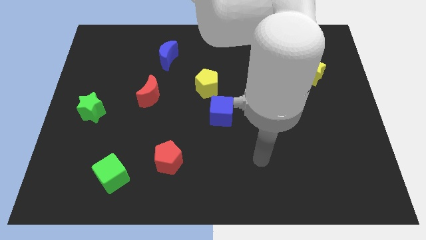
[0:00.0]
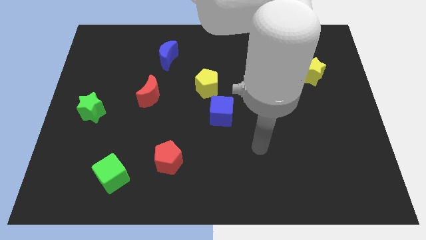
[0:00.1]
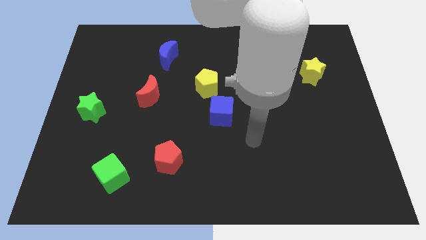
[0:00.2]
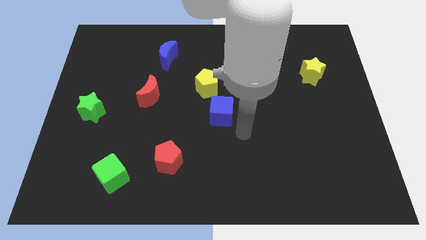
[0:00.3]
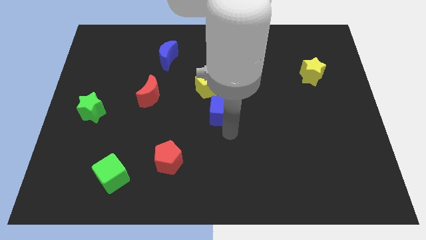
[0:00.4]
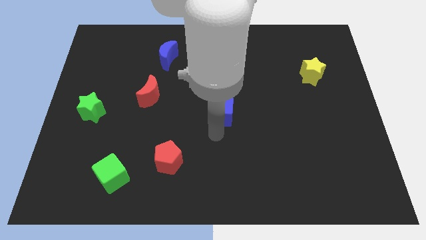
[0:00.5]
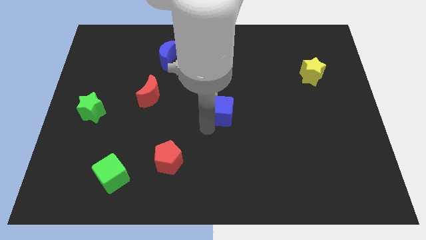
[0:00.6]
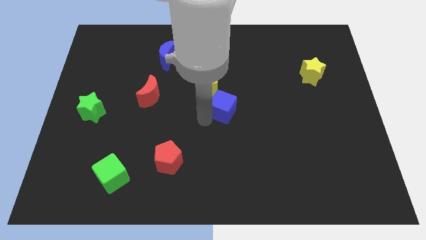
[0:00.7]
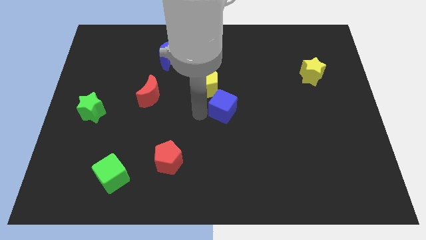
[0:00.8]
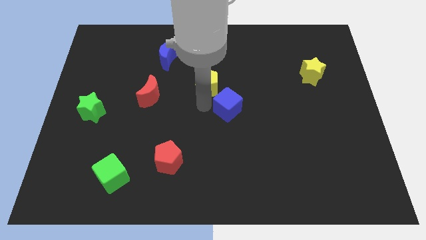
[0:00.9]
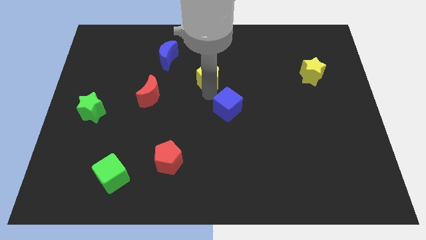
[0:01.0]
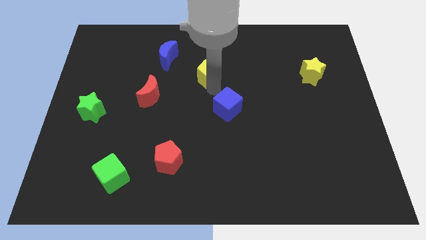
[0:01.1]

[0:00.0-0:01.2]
separate the blue cube from the yellow pentagon

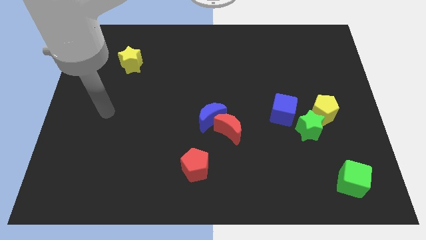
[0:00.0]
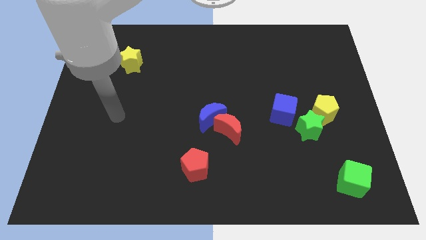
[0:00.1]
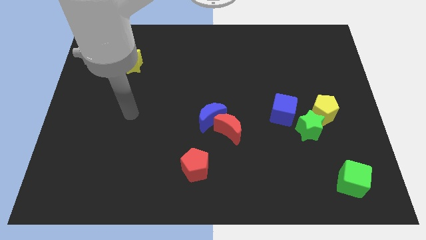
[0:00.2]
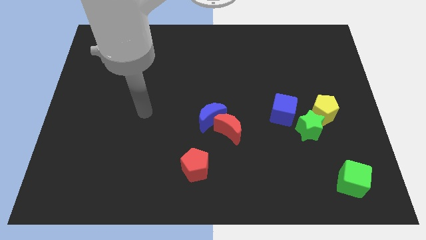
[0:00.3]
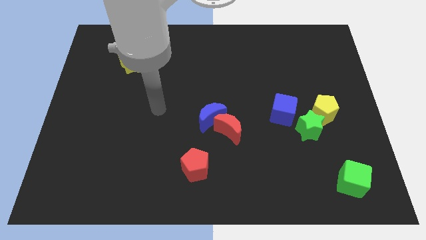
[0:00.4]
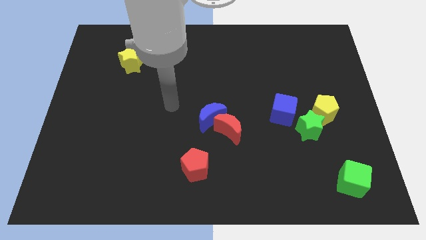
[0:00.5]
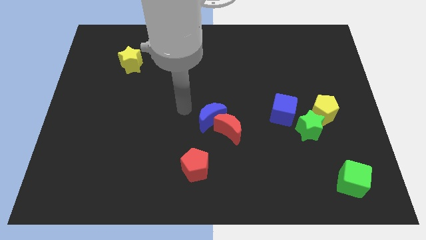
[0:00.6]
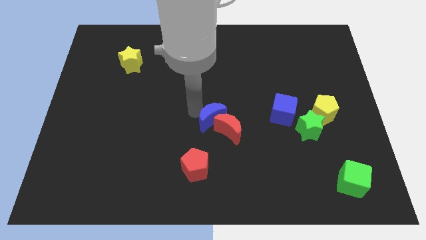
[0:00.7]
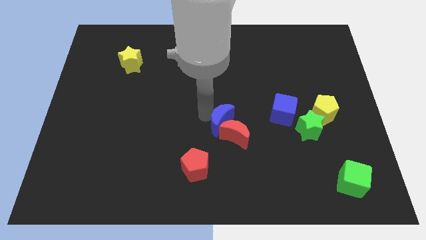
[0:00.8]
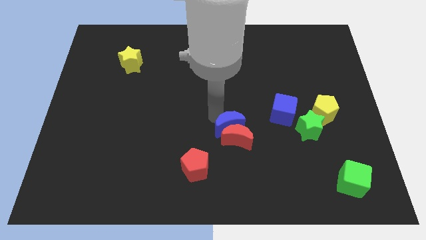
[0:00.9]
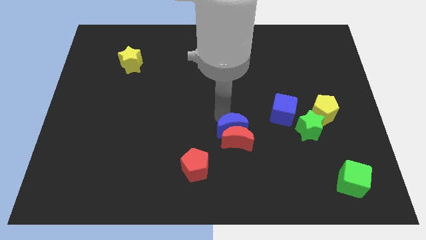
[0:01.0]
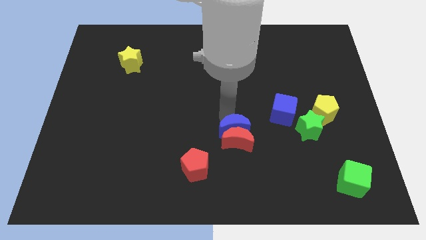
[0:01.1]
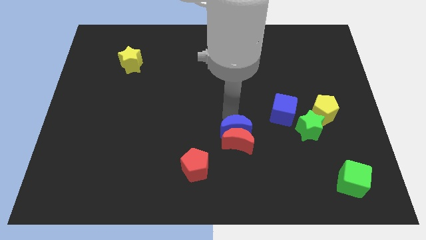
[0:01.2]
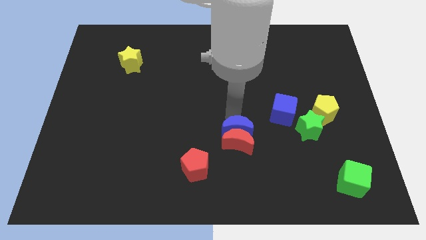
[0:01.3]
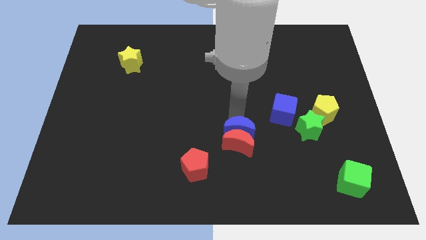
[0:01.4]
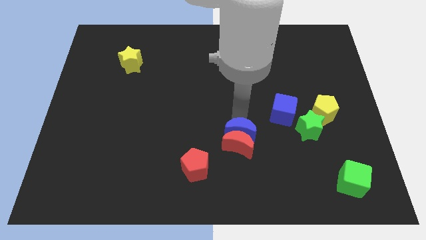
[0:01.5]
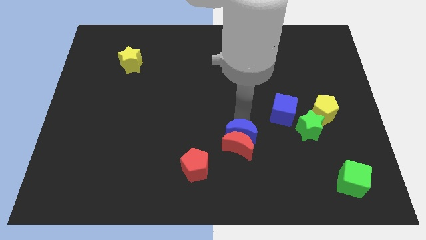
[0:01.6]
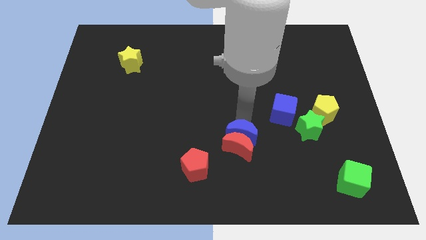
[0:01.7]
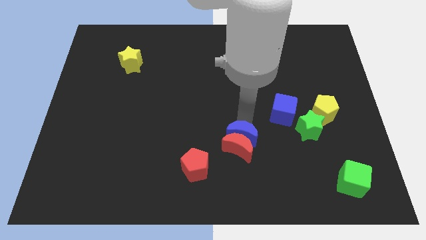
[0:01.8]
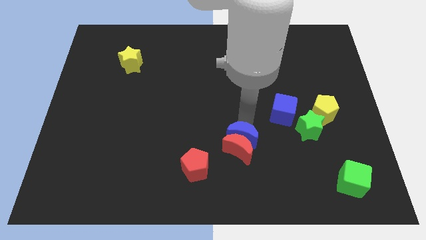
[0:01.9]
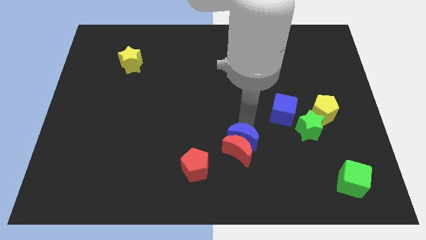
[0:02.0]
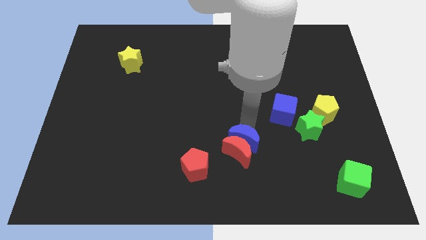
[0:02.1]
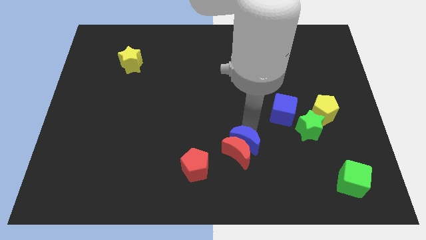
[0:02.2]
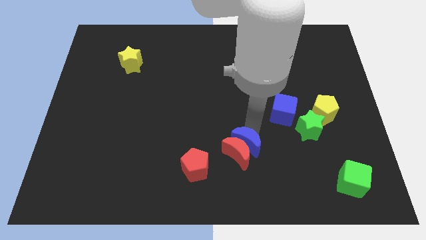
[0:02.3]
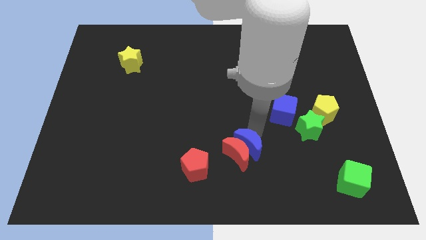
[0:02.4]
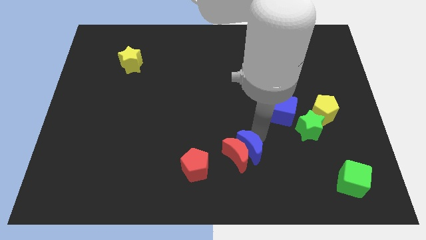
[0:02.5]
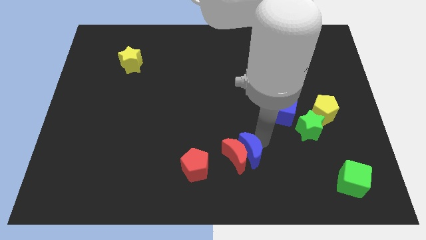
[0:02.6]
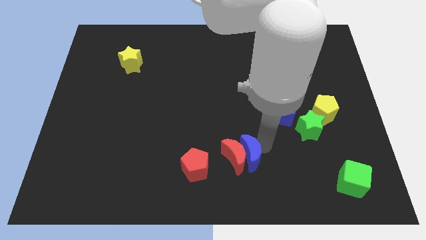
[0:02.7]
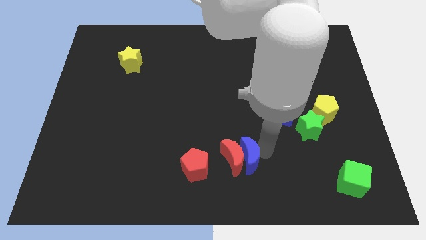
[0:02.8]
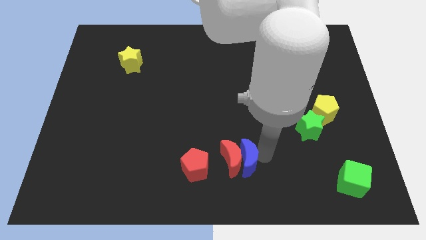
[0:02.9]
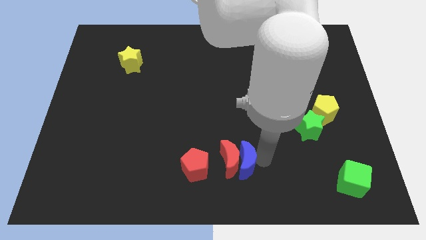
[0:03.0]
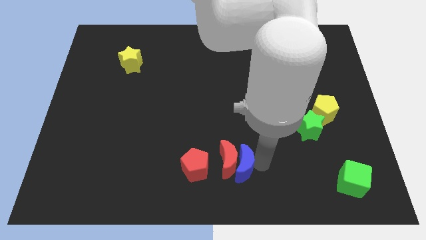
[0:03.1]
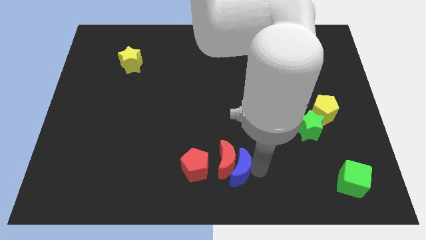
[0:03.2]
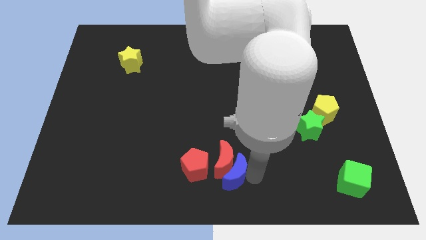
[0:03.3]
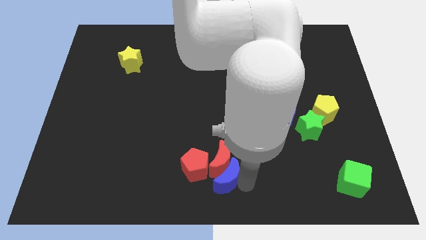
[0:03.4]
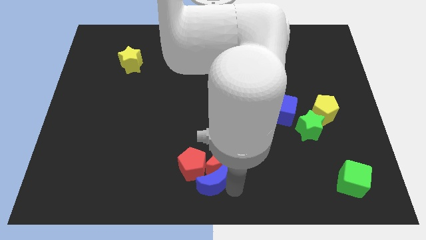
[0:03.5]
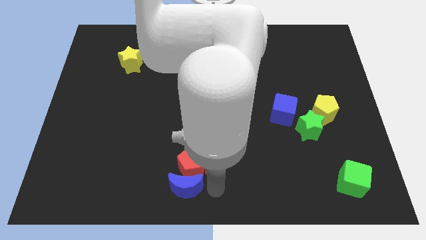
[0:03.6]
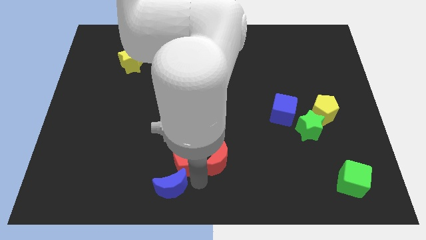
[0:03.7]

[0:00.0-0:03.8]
move the red moon away from the blue moon

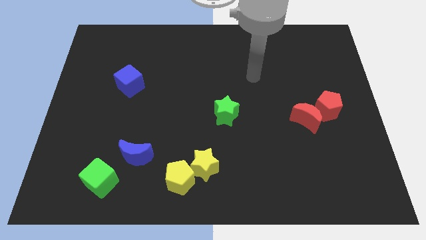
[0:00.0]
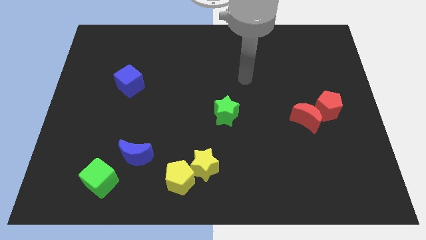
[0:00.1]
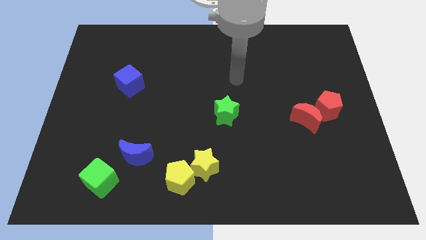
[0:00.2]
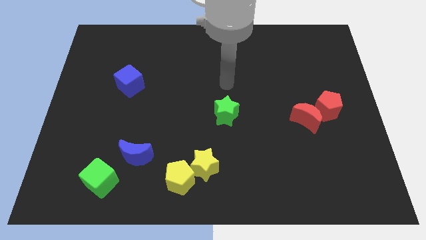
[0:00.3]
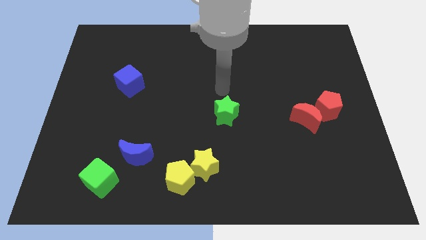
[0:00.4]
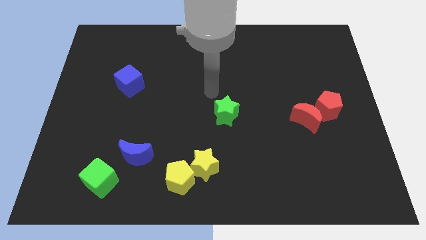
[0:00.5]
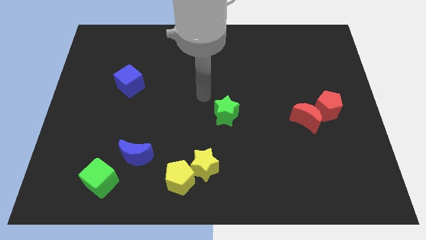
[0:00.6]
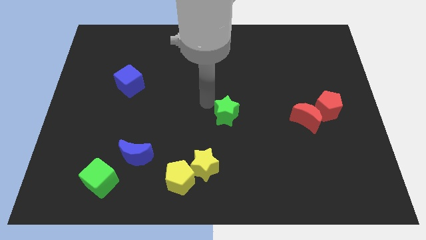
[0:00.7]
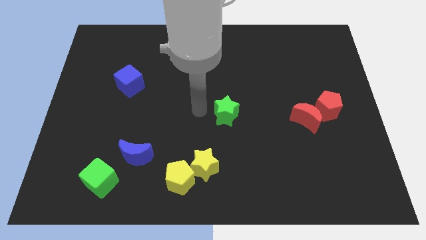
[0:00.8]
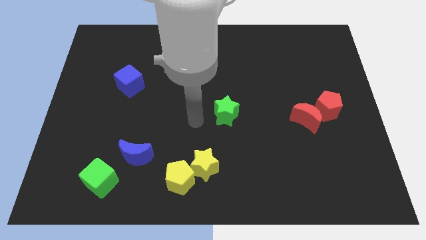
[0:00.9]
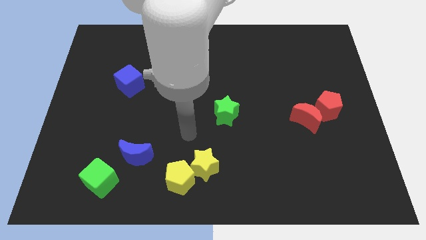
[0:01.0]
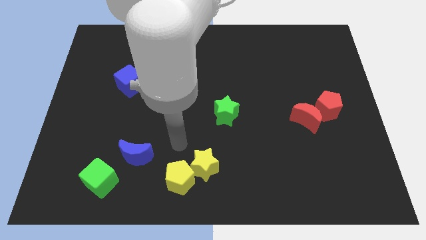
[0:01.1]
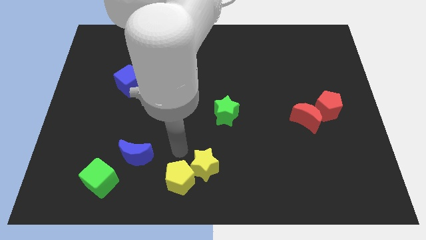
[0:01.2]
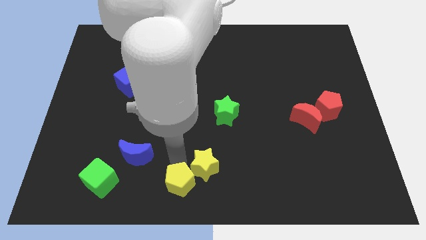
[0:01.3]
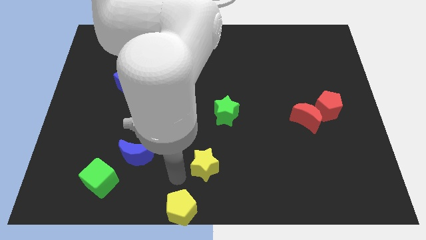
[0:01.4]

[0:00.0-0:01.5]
move the yellow star away from the yellow pentagon

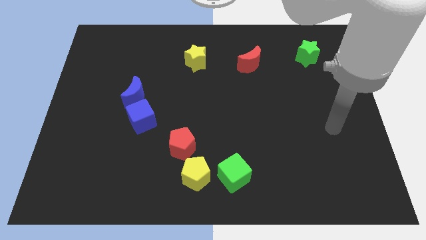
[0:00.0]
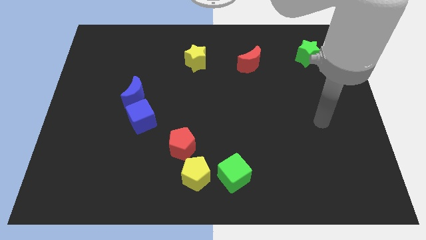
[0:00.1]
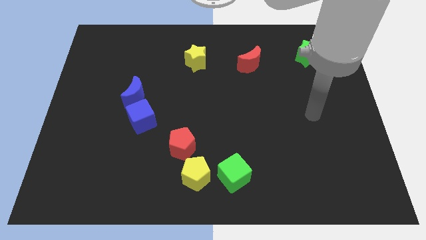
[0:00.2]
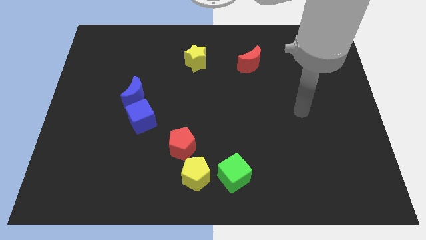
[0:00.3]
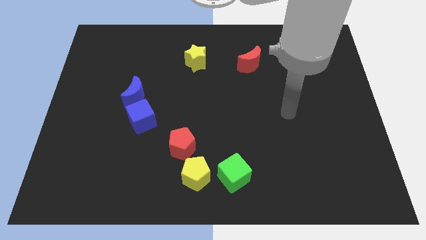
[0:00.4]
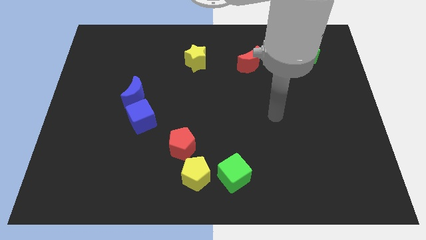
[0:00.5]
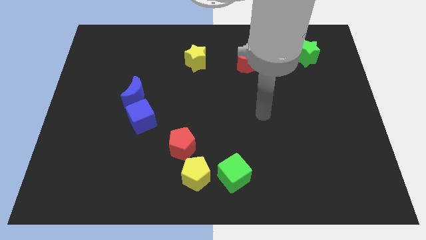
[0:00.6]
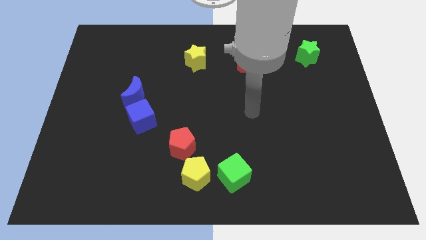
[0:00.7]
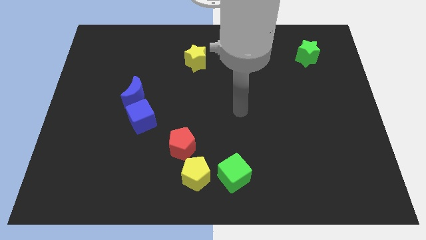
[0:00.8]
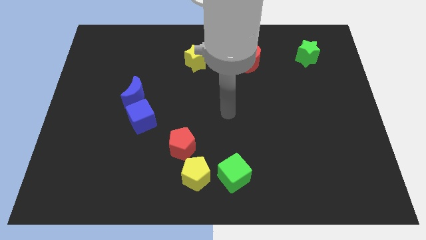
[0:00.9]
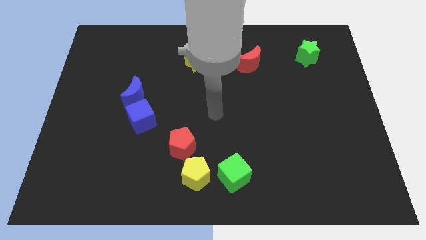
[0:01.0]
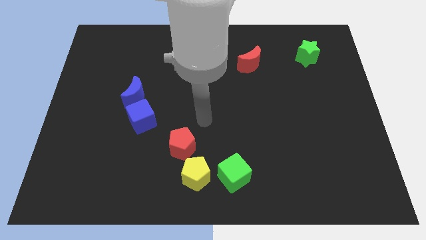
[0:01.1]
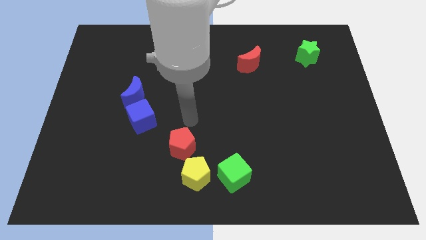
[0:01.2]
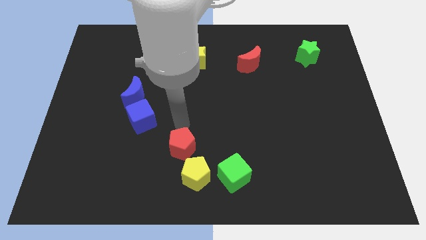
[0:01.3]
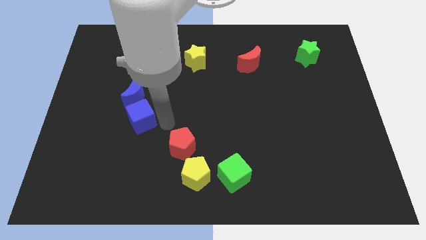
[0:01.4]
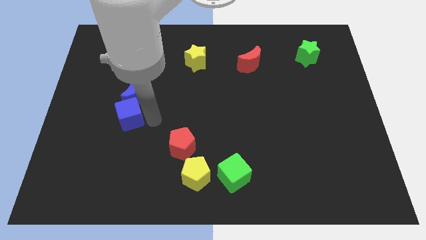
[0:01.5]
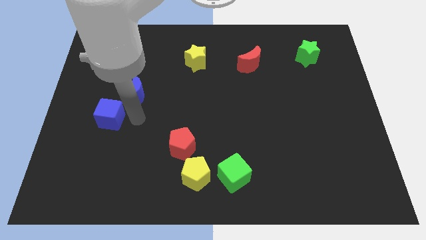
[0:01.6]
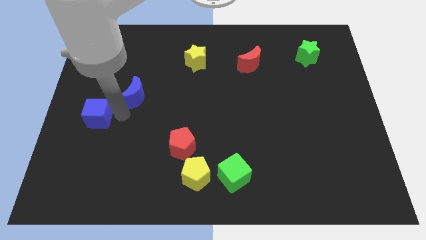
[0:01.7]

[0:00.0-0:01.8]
separate the blue moon from the blue cube

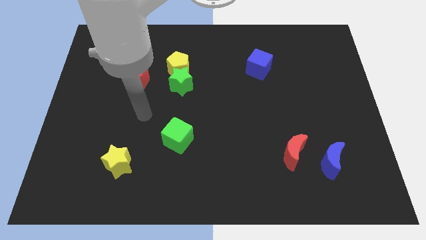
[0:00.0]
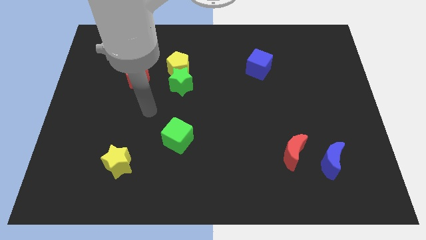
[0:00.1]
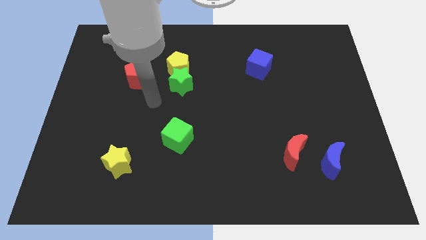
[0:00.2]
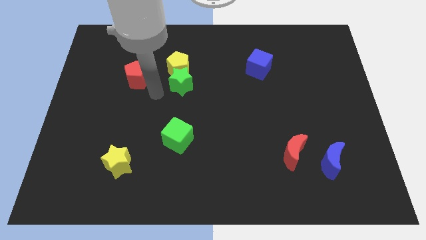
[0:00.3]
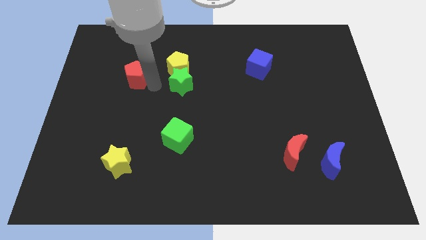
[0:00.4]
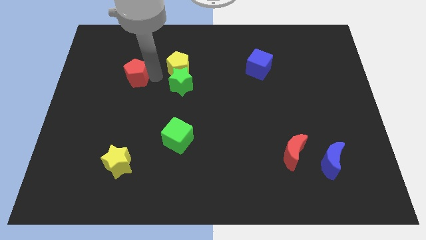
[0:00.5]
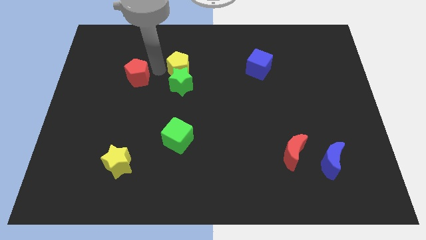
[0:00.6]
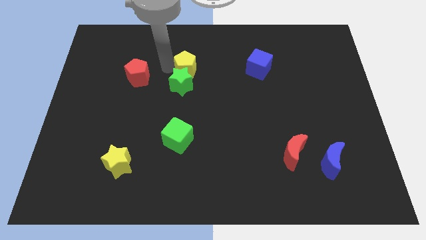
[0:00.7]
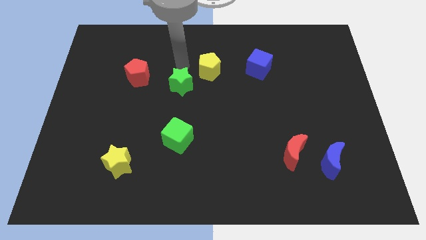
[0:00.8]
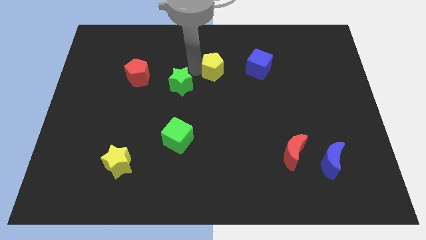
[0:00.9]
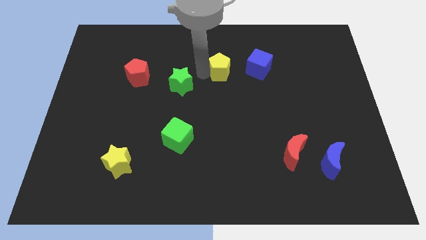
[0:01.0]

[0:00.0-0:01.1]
move the green star away from the yellow pentagon
